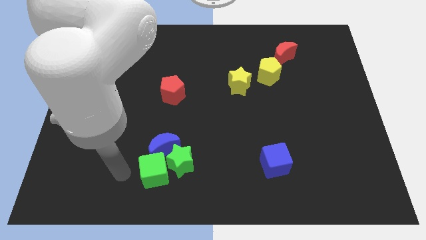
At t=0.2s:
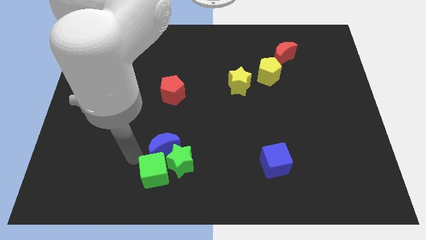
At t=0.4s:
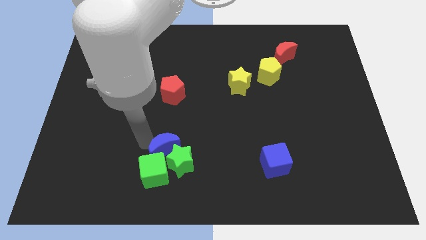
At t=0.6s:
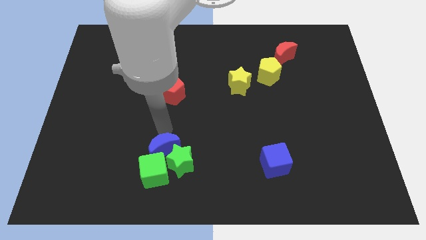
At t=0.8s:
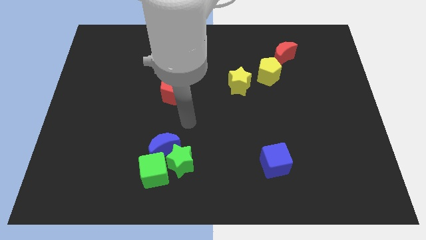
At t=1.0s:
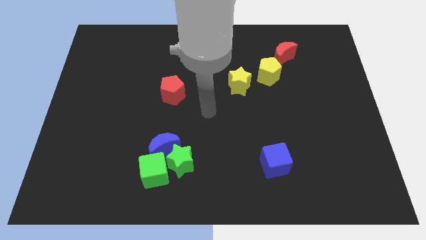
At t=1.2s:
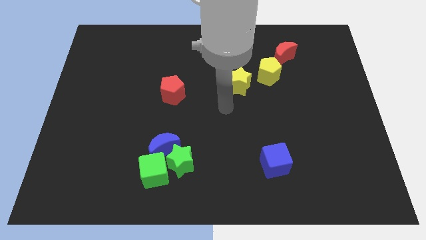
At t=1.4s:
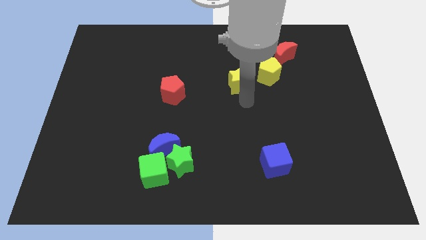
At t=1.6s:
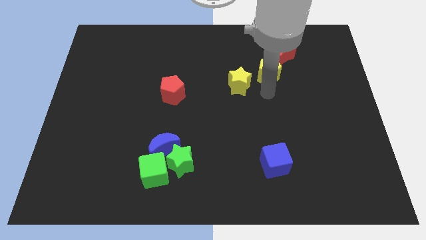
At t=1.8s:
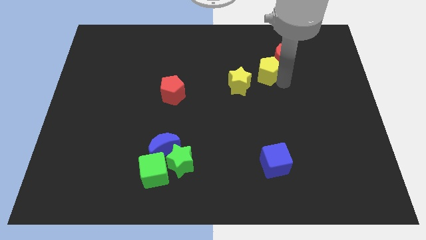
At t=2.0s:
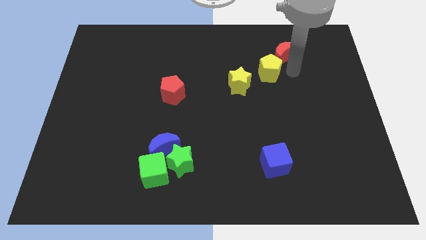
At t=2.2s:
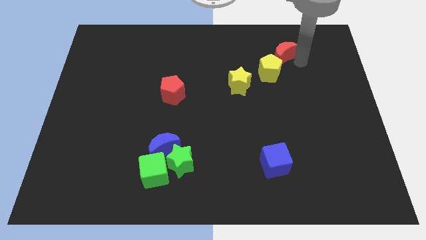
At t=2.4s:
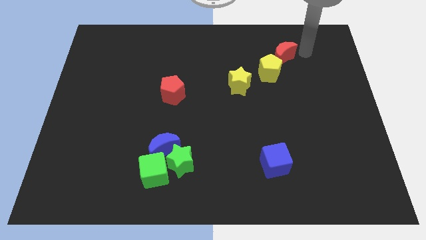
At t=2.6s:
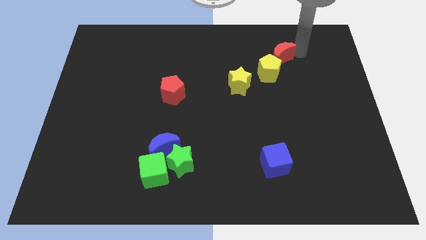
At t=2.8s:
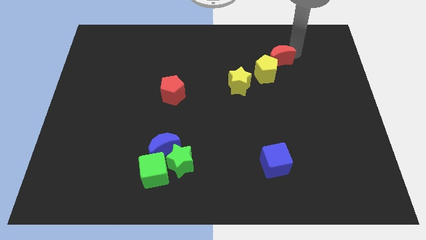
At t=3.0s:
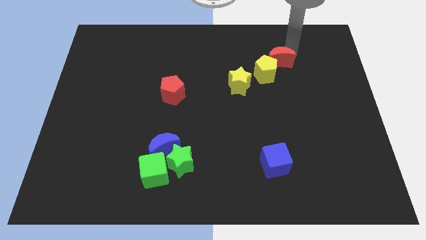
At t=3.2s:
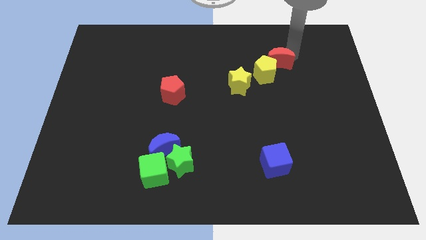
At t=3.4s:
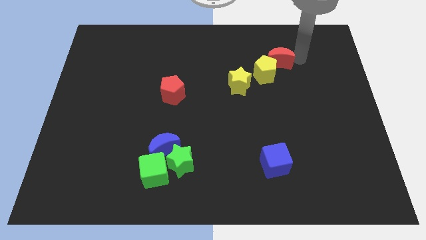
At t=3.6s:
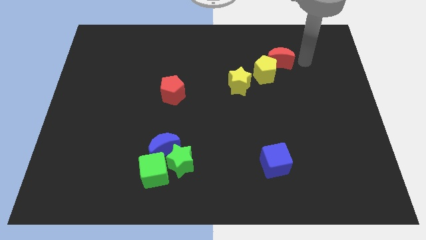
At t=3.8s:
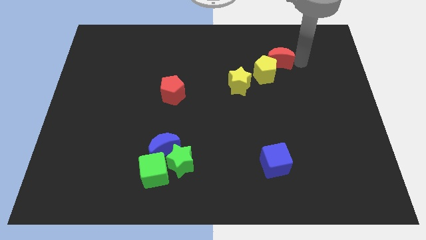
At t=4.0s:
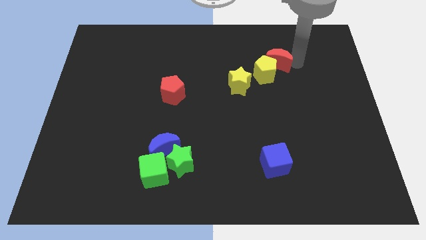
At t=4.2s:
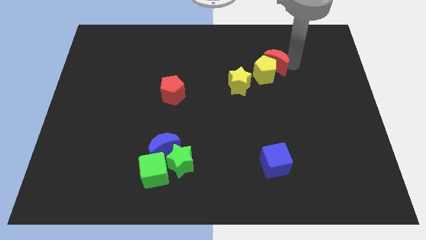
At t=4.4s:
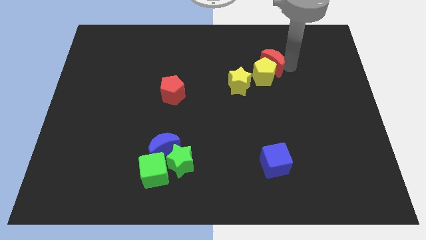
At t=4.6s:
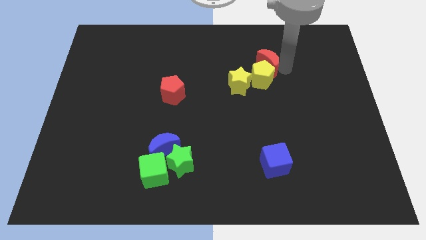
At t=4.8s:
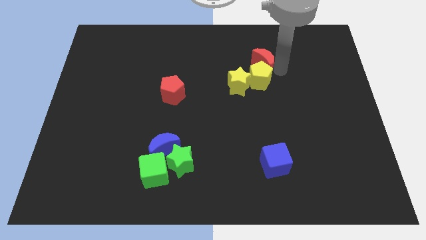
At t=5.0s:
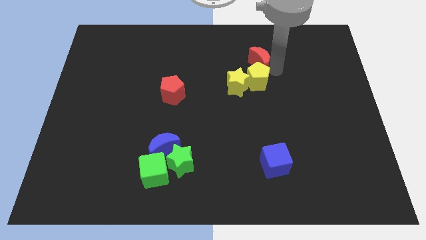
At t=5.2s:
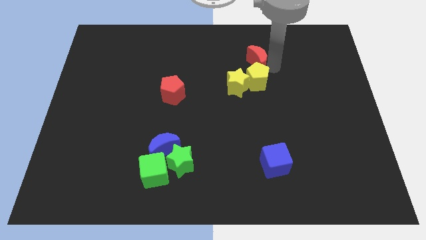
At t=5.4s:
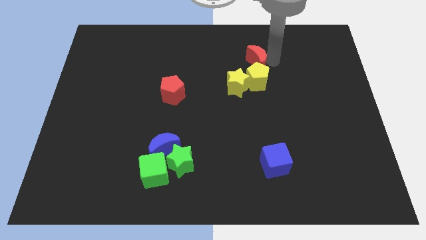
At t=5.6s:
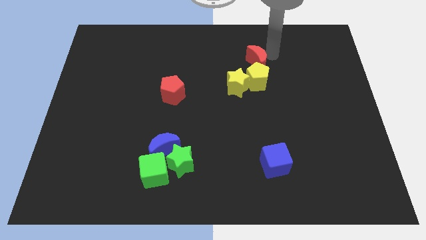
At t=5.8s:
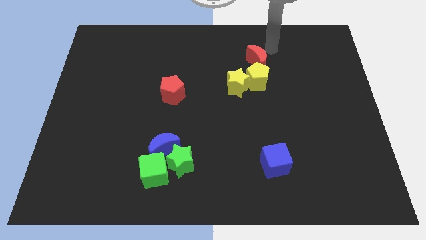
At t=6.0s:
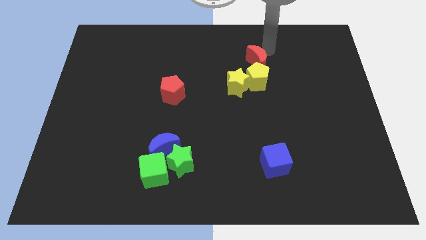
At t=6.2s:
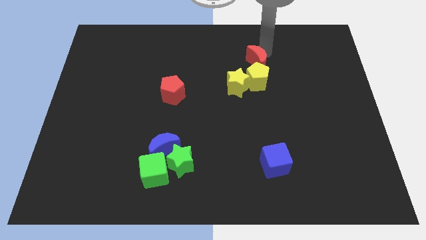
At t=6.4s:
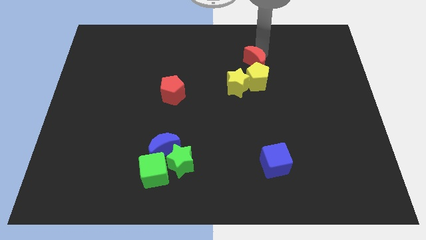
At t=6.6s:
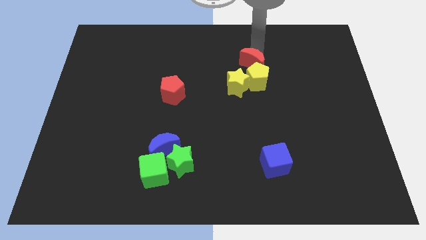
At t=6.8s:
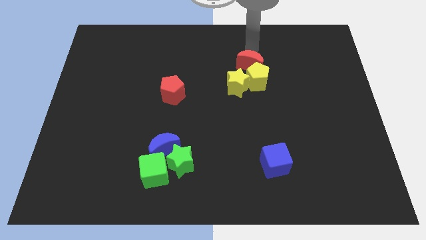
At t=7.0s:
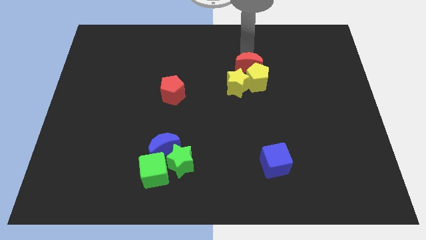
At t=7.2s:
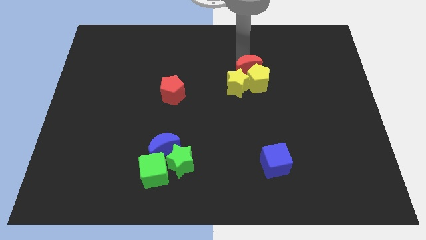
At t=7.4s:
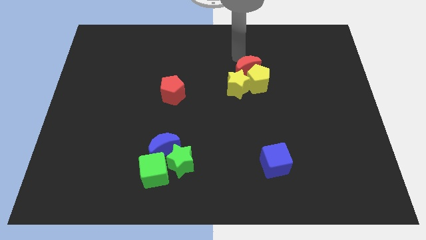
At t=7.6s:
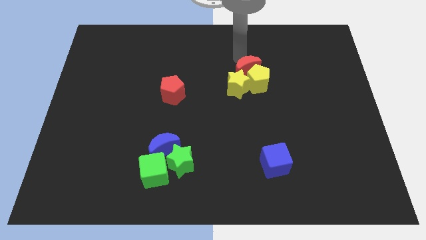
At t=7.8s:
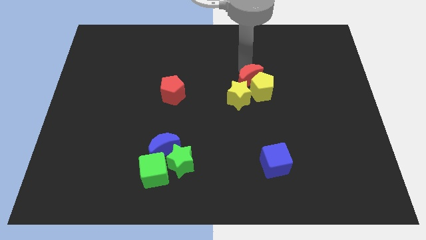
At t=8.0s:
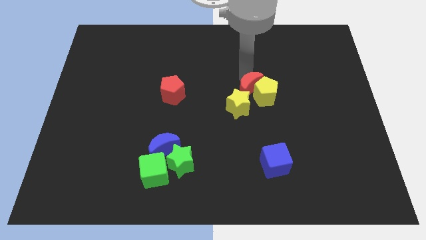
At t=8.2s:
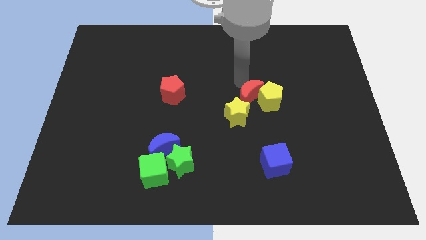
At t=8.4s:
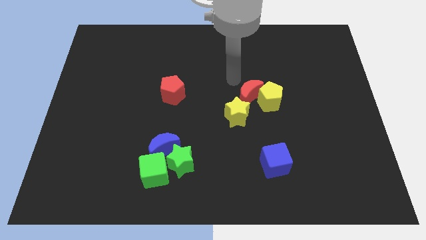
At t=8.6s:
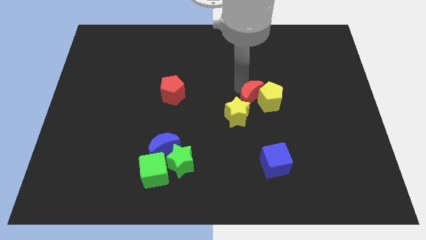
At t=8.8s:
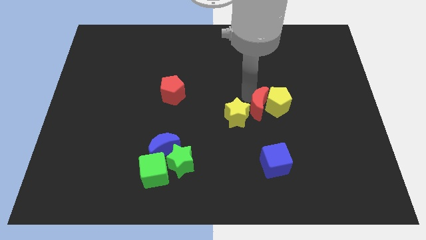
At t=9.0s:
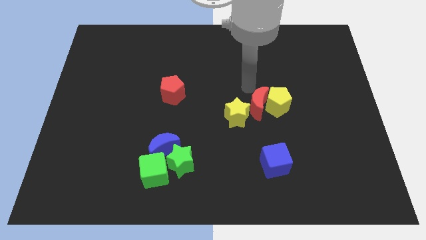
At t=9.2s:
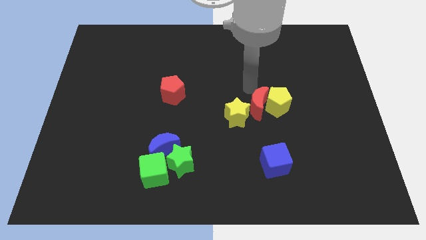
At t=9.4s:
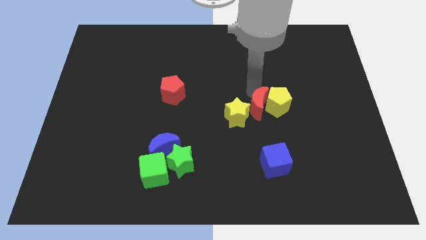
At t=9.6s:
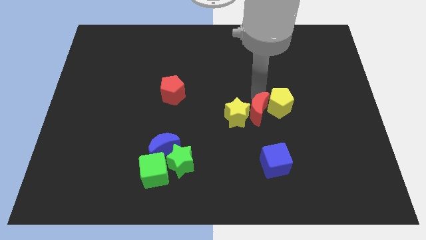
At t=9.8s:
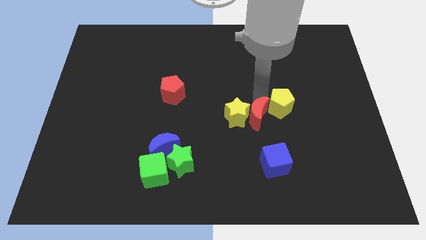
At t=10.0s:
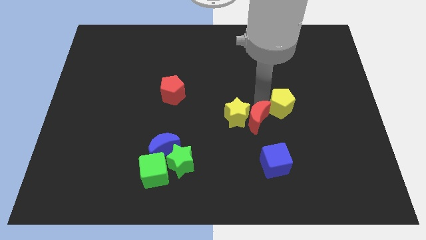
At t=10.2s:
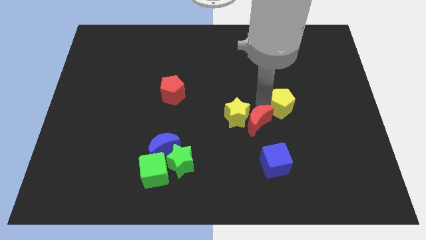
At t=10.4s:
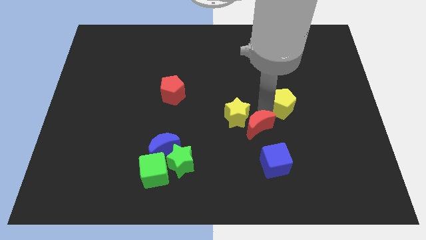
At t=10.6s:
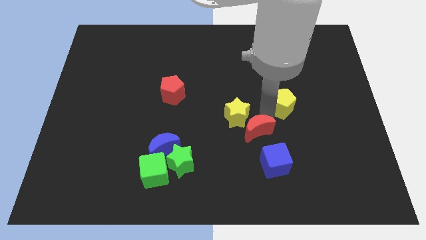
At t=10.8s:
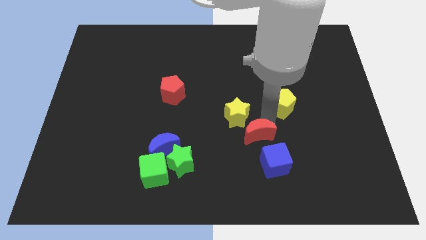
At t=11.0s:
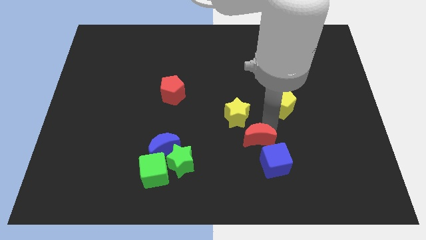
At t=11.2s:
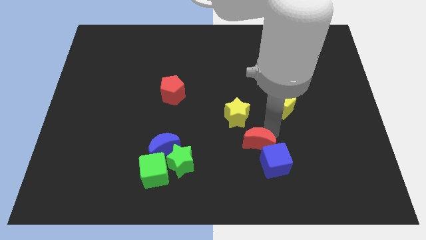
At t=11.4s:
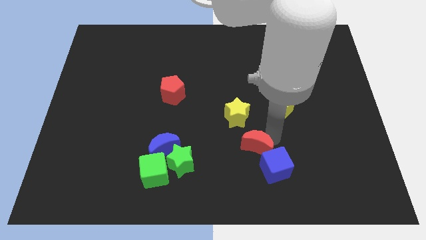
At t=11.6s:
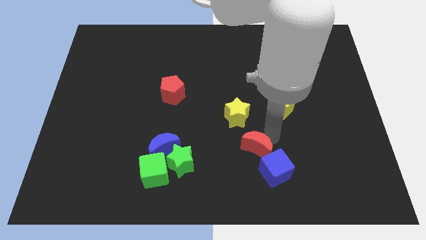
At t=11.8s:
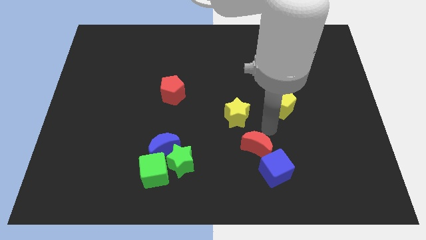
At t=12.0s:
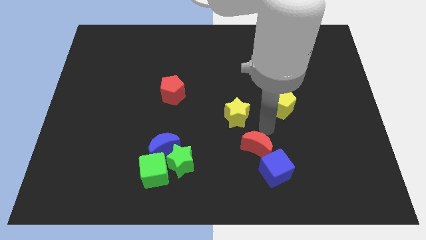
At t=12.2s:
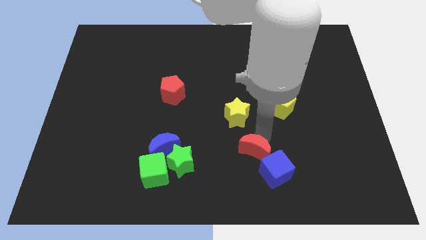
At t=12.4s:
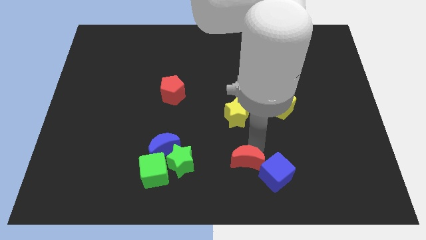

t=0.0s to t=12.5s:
slide the red moon to the bottom

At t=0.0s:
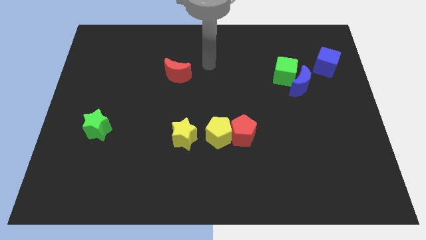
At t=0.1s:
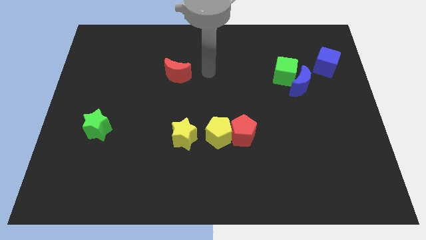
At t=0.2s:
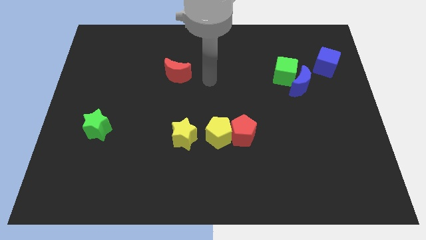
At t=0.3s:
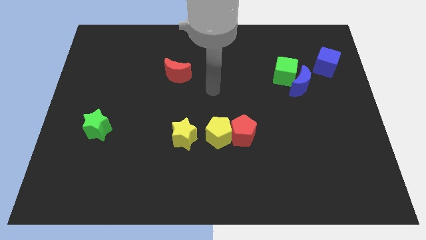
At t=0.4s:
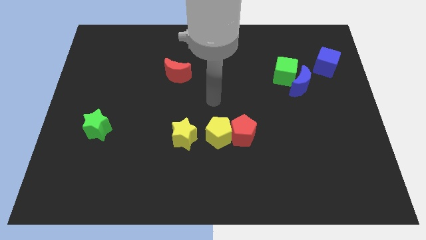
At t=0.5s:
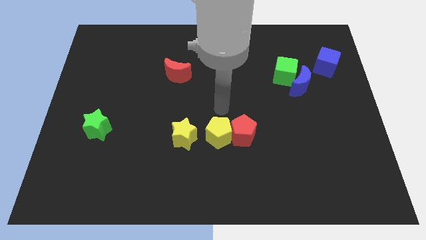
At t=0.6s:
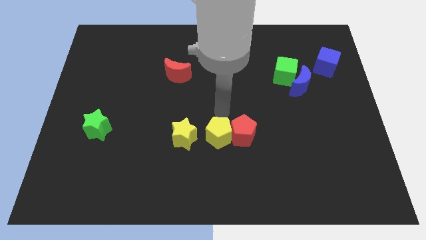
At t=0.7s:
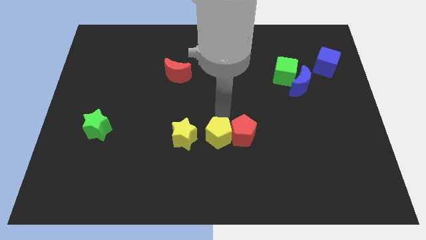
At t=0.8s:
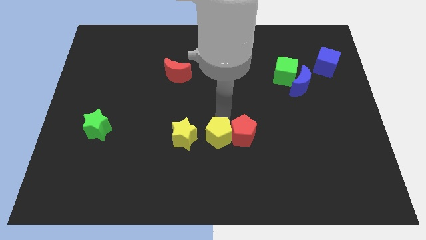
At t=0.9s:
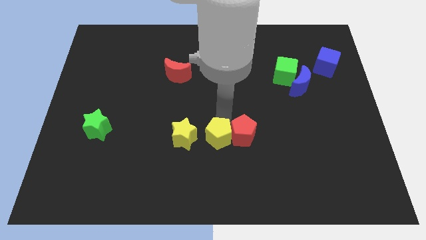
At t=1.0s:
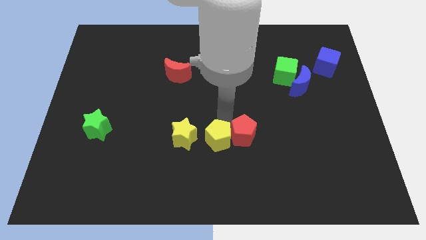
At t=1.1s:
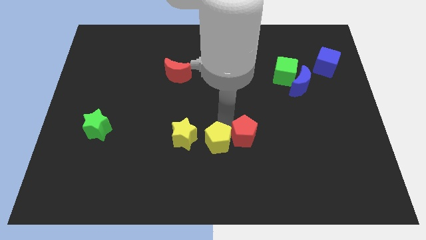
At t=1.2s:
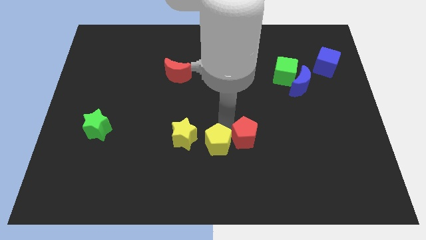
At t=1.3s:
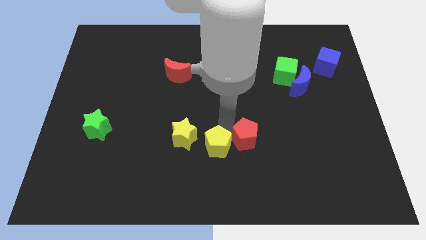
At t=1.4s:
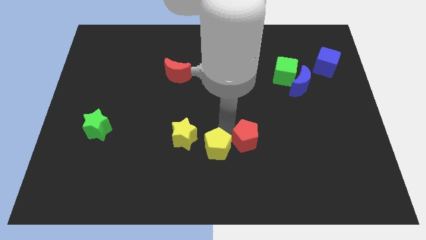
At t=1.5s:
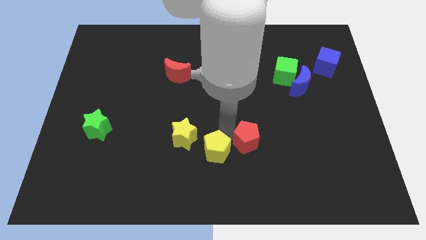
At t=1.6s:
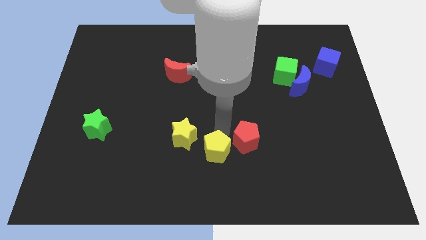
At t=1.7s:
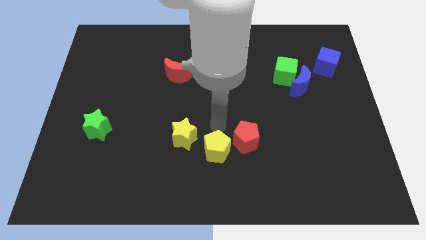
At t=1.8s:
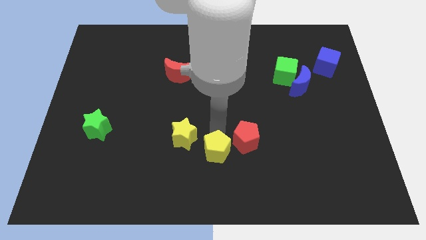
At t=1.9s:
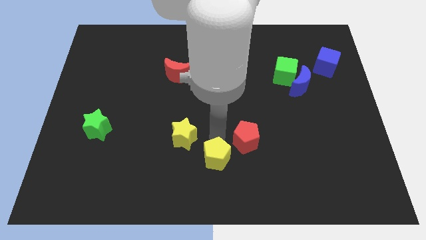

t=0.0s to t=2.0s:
move the yellow pentagon to the bottom side
